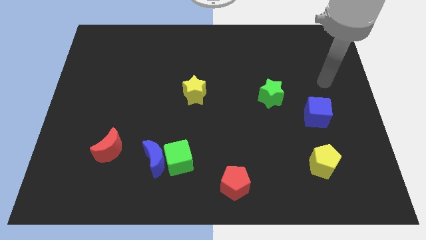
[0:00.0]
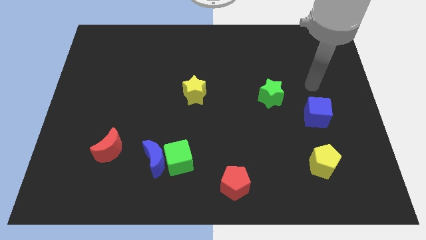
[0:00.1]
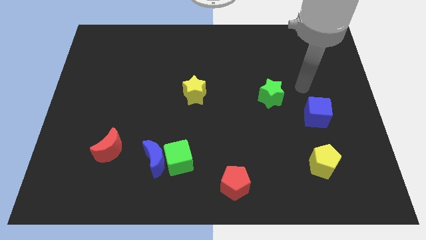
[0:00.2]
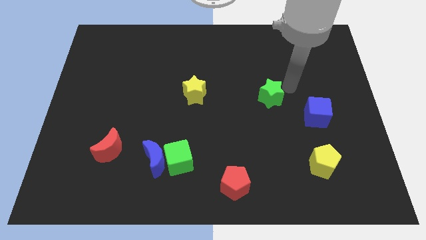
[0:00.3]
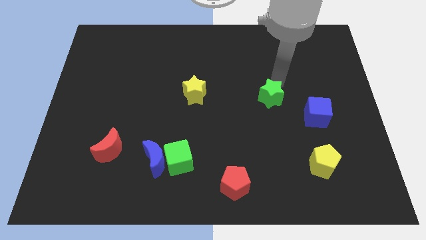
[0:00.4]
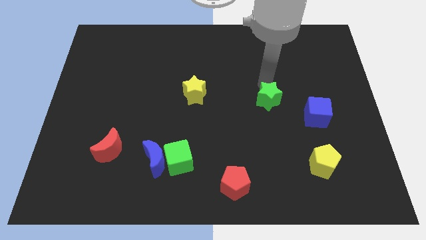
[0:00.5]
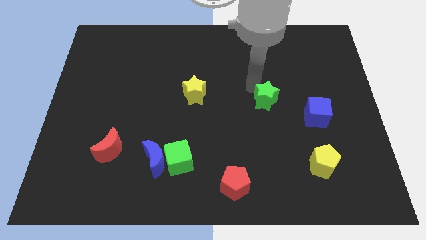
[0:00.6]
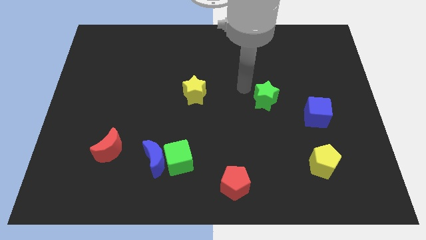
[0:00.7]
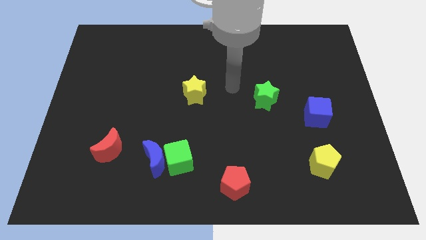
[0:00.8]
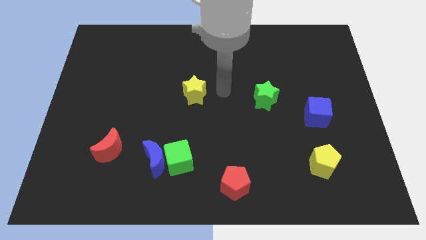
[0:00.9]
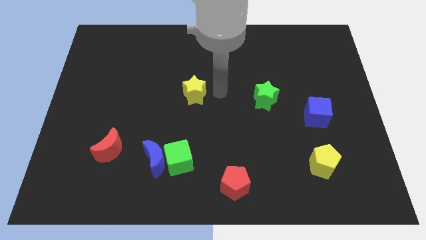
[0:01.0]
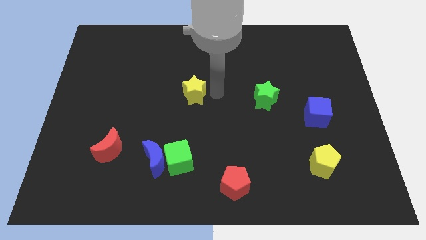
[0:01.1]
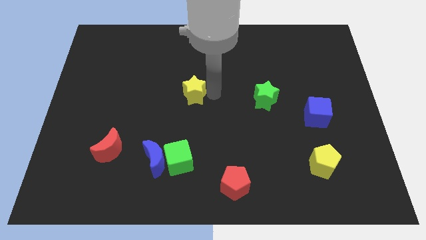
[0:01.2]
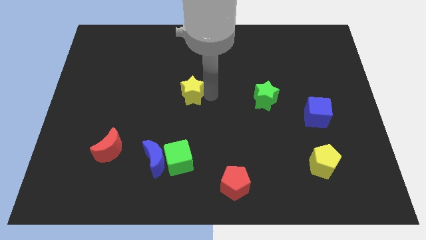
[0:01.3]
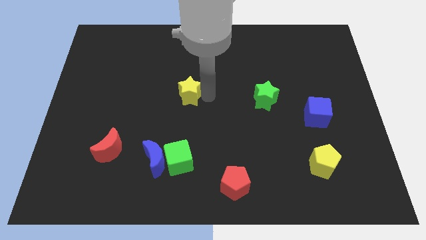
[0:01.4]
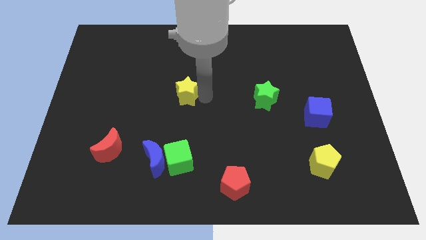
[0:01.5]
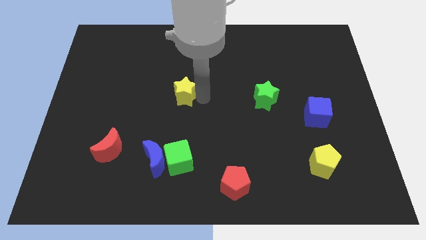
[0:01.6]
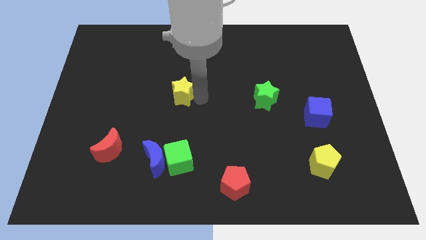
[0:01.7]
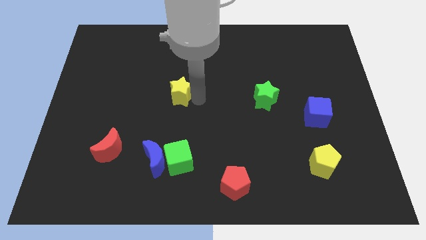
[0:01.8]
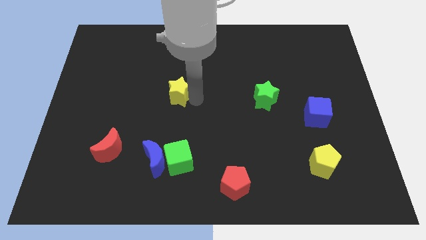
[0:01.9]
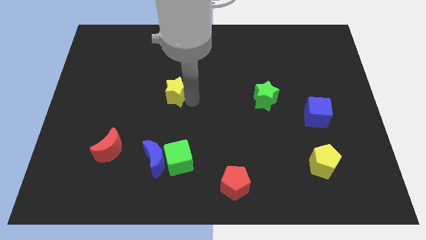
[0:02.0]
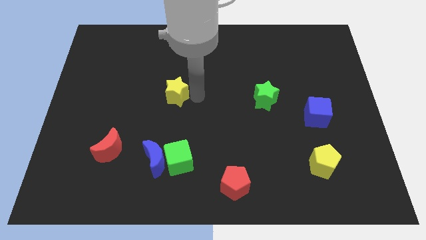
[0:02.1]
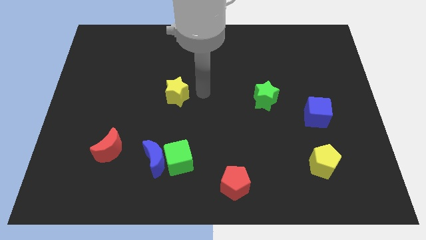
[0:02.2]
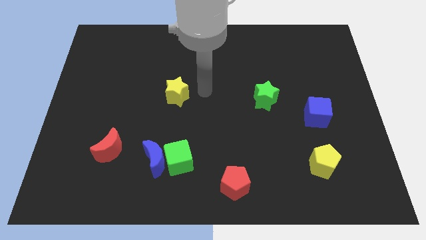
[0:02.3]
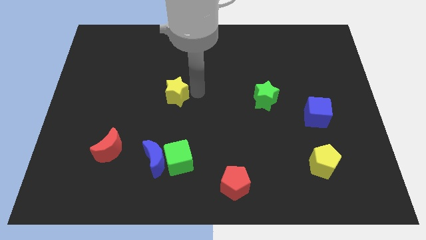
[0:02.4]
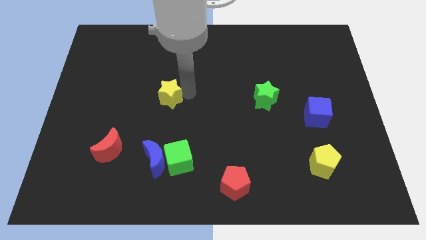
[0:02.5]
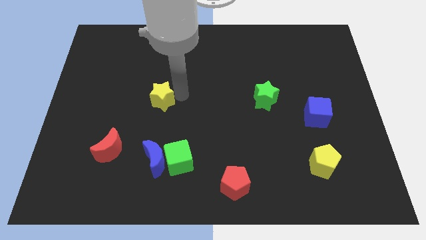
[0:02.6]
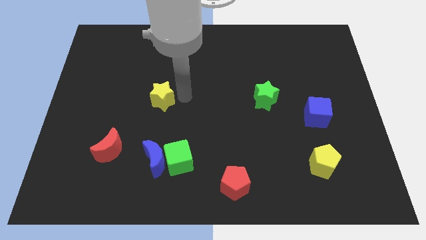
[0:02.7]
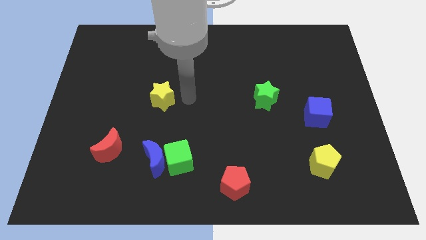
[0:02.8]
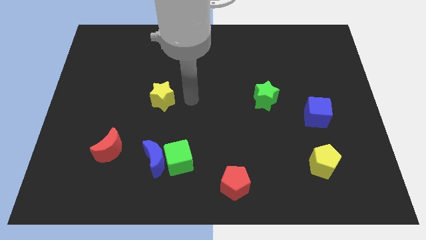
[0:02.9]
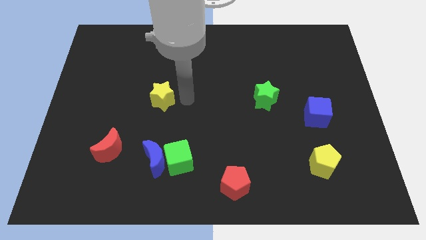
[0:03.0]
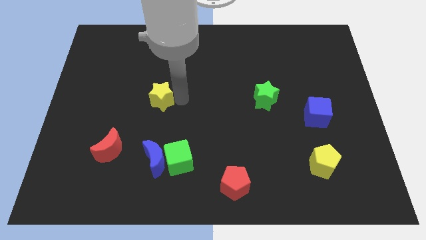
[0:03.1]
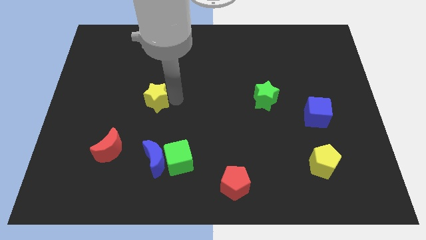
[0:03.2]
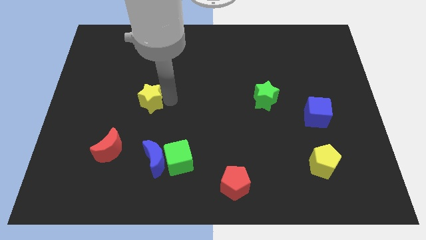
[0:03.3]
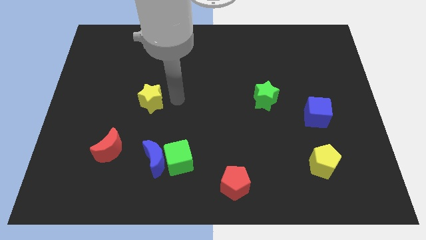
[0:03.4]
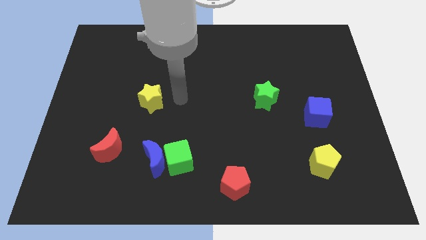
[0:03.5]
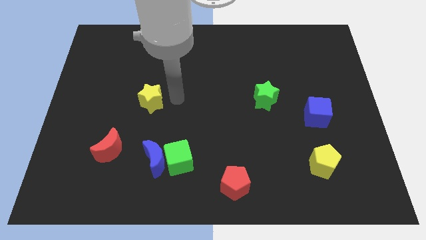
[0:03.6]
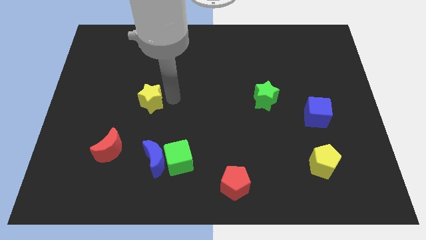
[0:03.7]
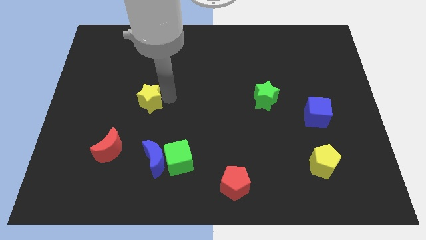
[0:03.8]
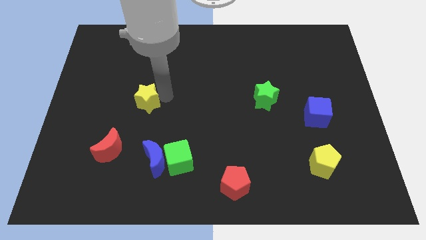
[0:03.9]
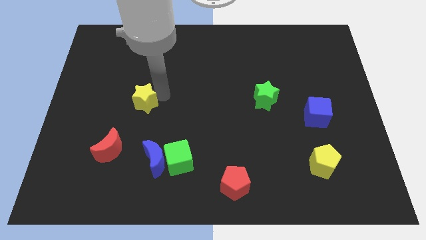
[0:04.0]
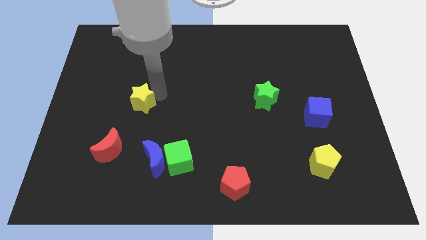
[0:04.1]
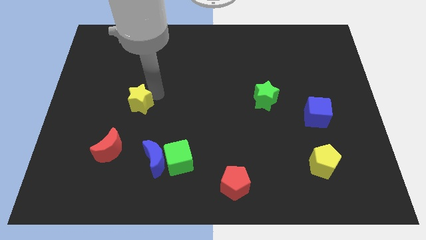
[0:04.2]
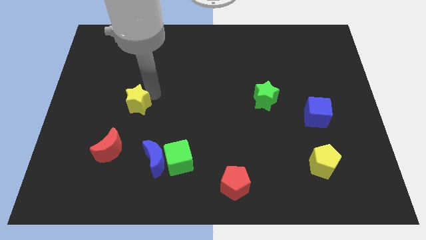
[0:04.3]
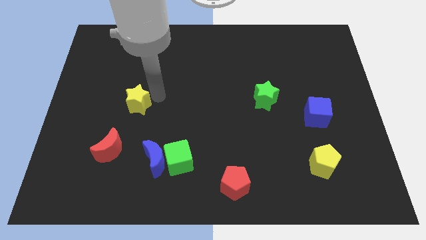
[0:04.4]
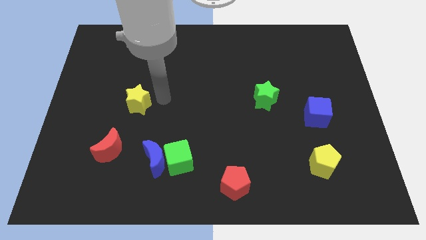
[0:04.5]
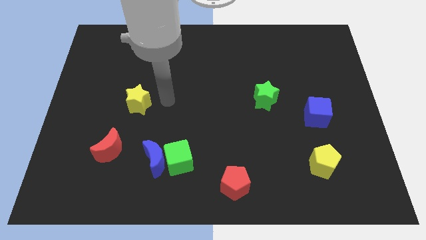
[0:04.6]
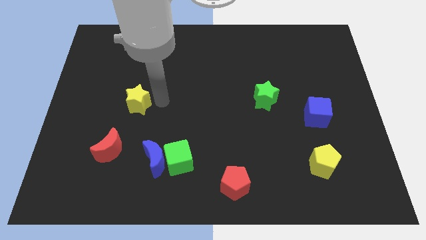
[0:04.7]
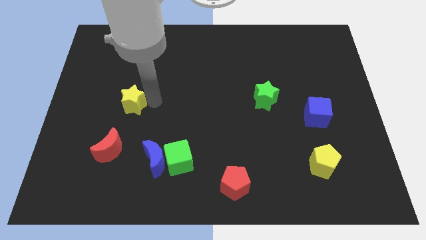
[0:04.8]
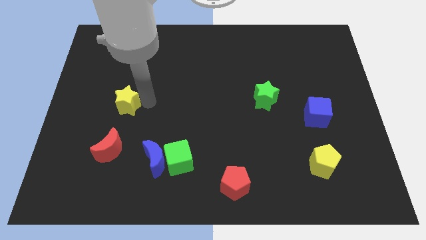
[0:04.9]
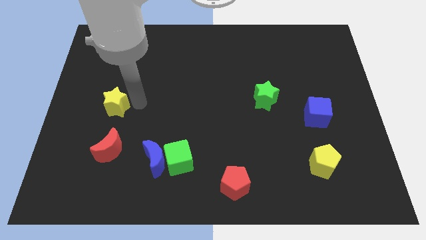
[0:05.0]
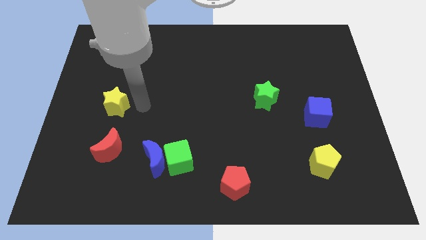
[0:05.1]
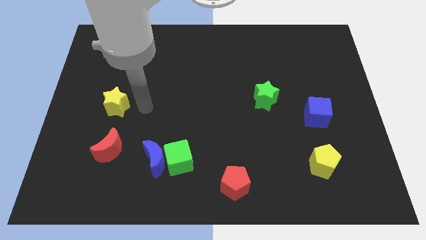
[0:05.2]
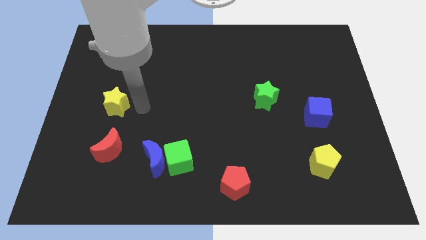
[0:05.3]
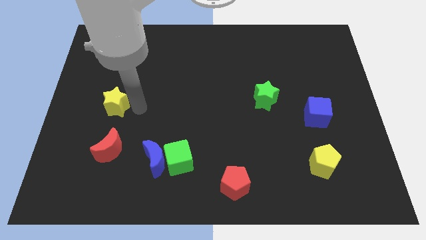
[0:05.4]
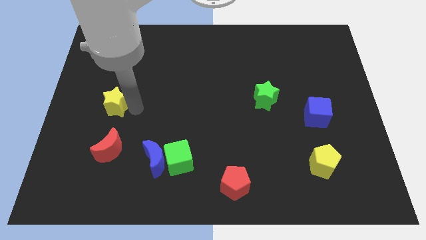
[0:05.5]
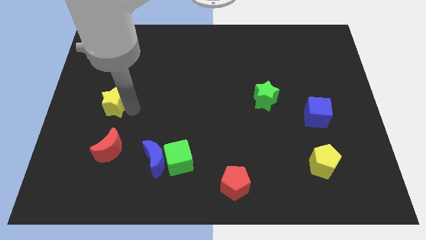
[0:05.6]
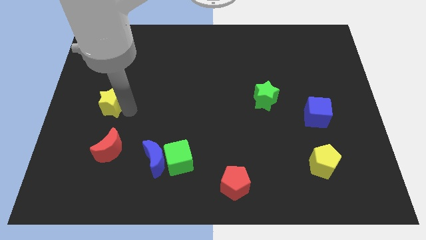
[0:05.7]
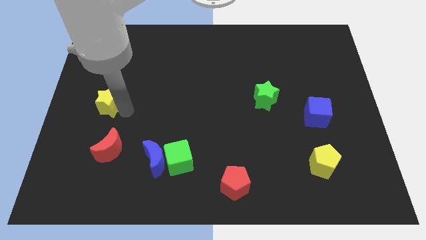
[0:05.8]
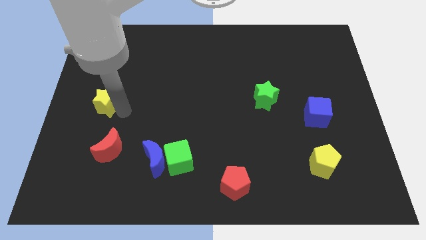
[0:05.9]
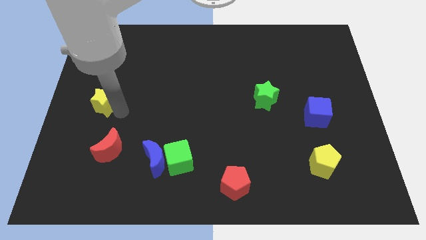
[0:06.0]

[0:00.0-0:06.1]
move the yellow star to the left side

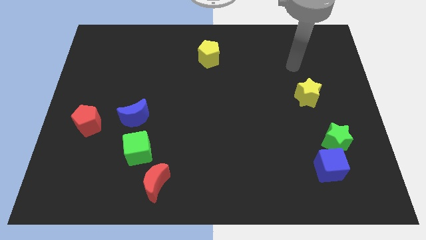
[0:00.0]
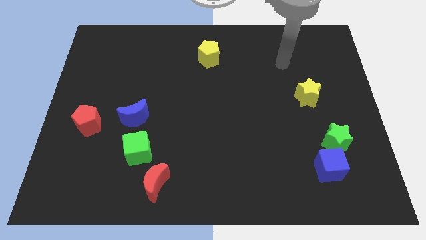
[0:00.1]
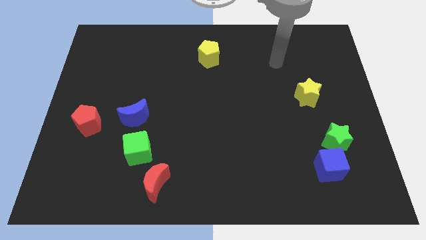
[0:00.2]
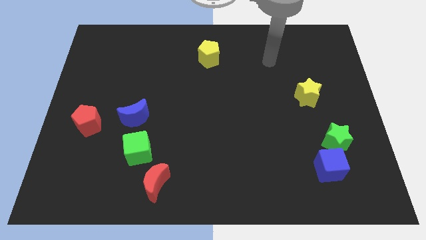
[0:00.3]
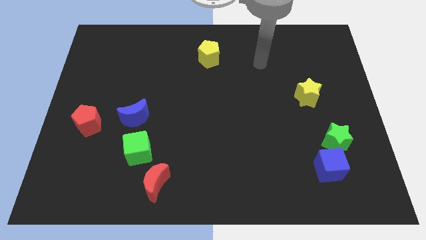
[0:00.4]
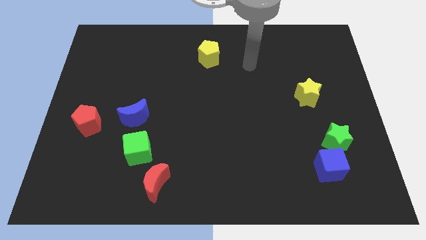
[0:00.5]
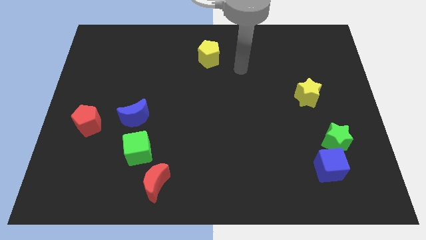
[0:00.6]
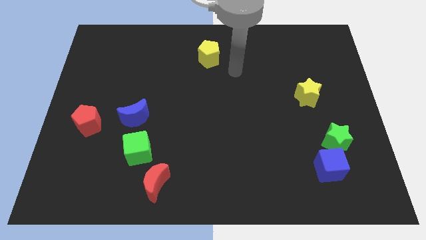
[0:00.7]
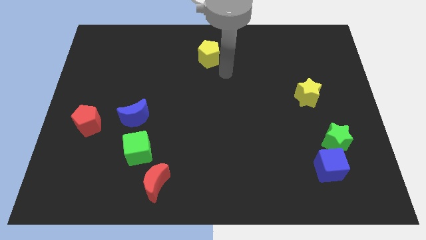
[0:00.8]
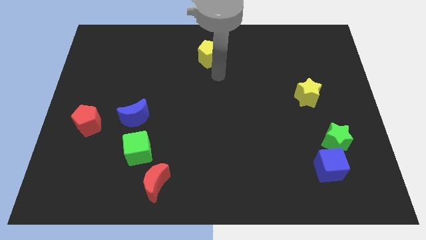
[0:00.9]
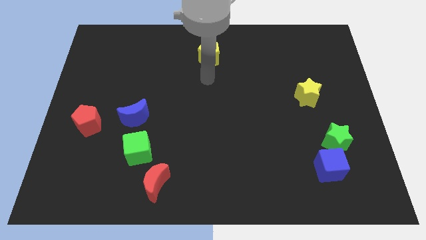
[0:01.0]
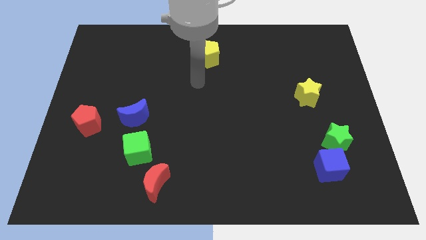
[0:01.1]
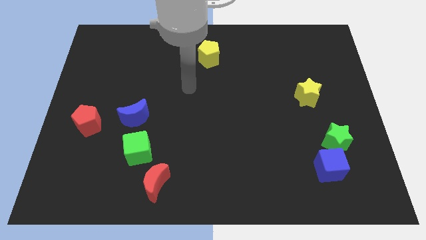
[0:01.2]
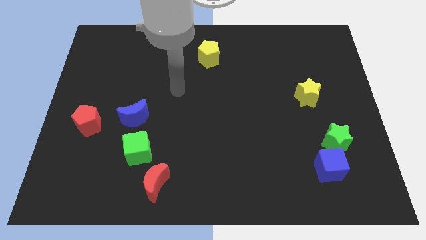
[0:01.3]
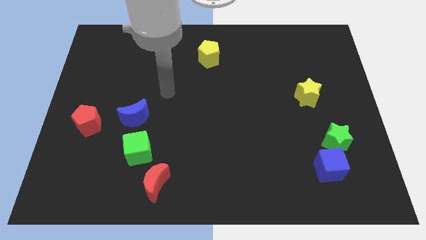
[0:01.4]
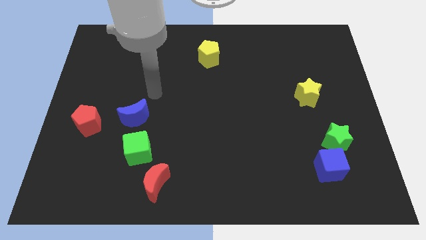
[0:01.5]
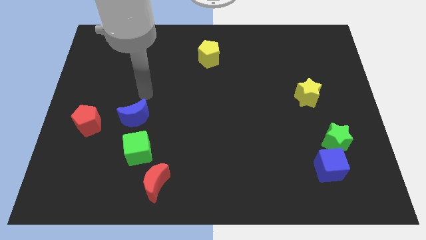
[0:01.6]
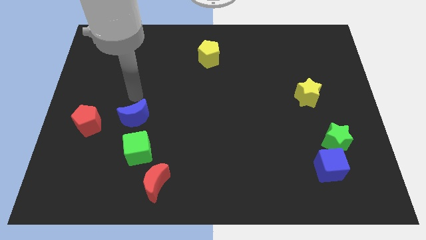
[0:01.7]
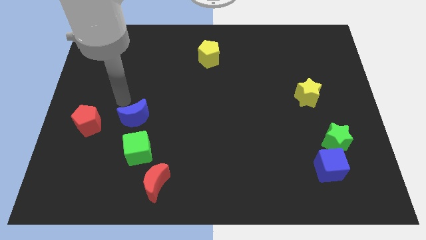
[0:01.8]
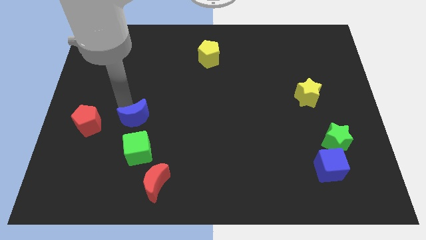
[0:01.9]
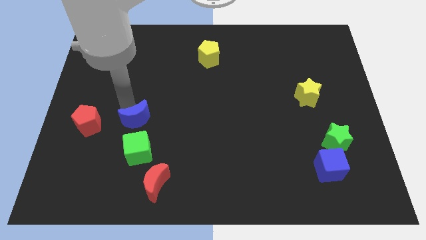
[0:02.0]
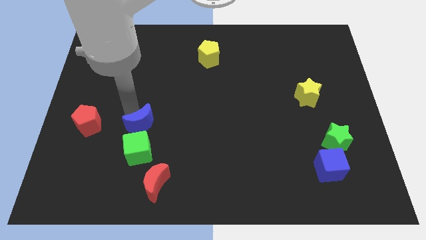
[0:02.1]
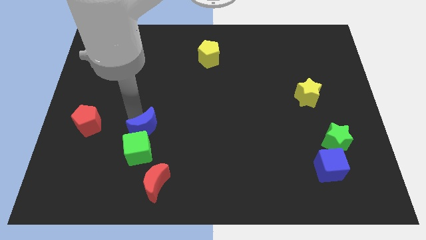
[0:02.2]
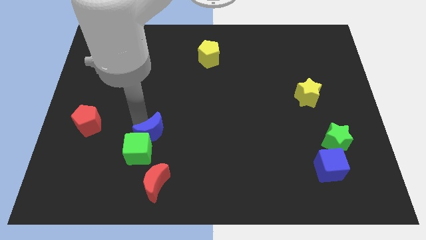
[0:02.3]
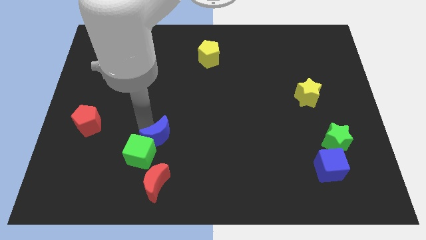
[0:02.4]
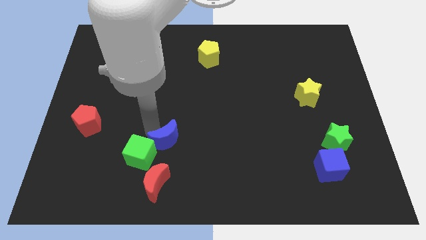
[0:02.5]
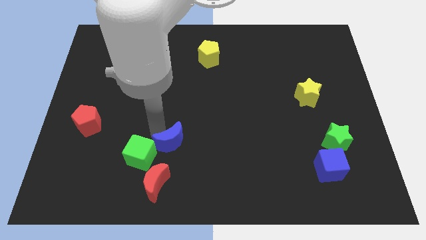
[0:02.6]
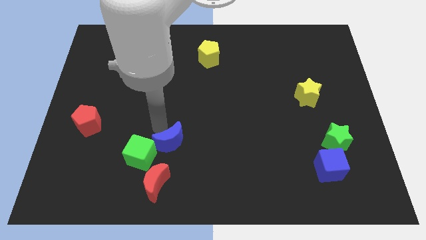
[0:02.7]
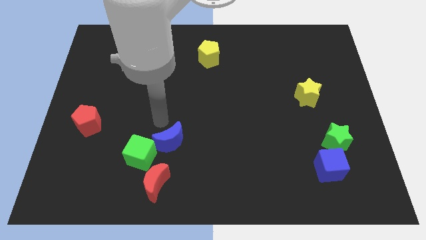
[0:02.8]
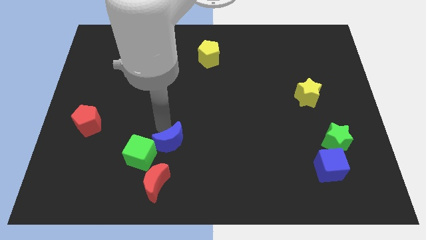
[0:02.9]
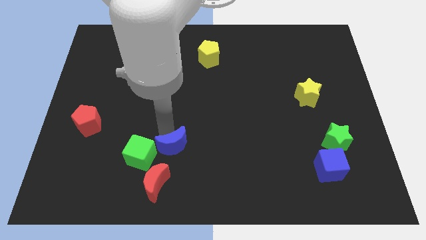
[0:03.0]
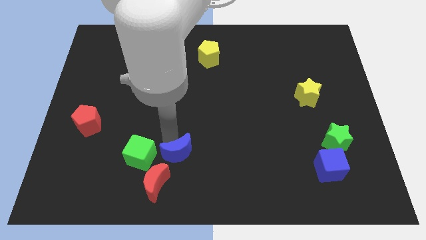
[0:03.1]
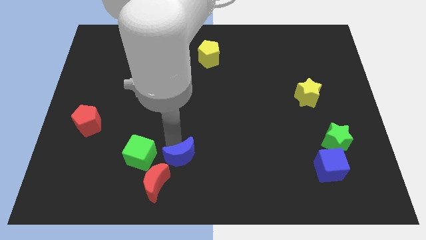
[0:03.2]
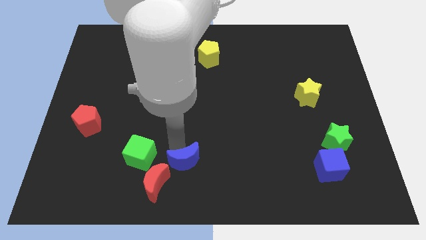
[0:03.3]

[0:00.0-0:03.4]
push the blue moon to the bottom side
